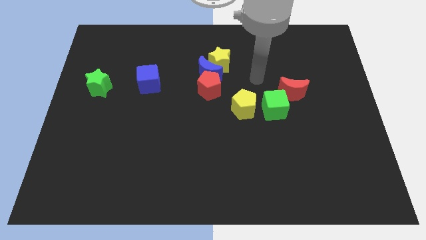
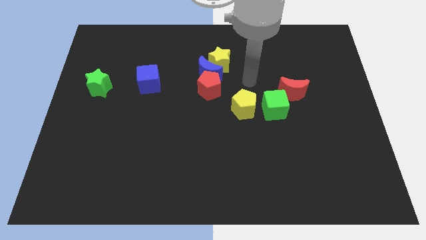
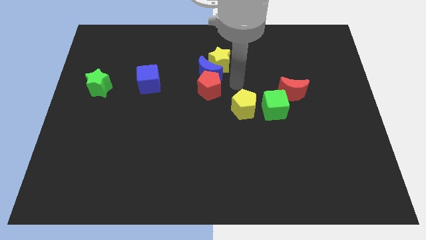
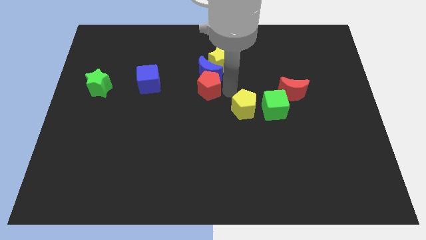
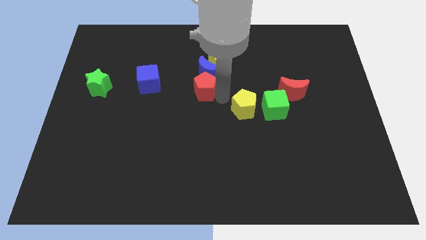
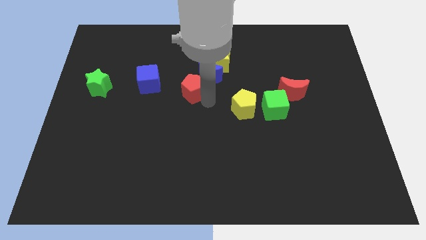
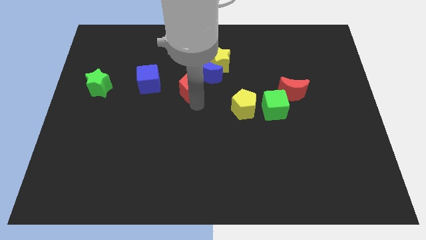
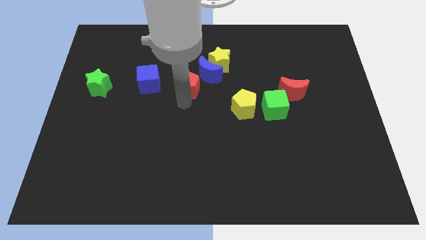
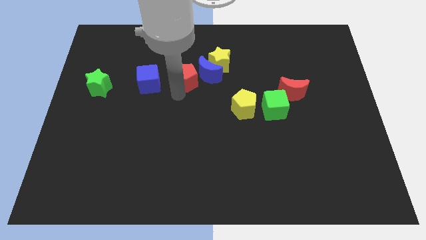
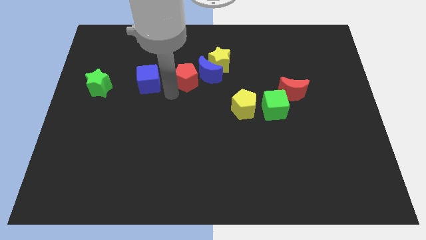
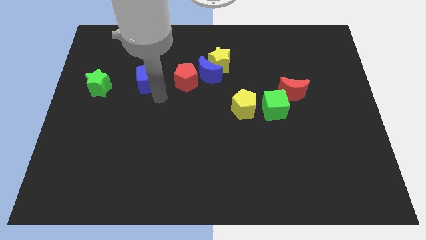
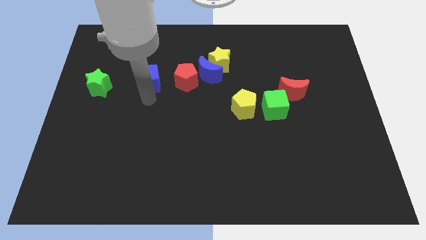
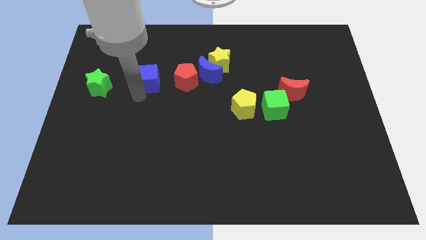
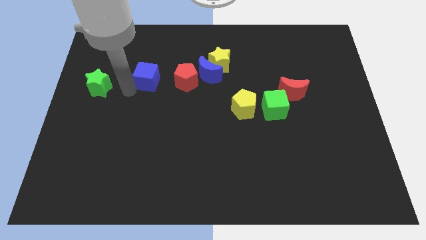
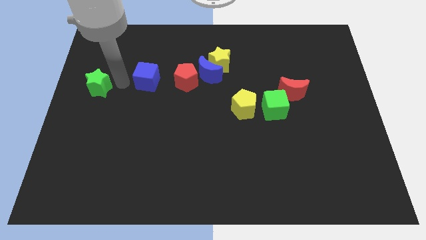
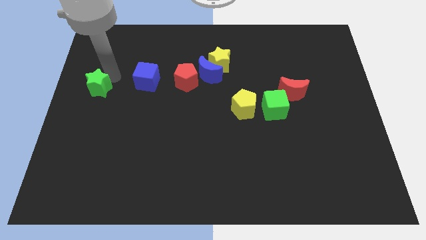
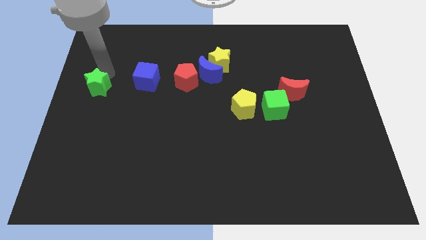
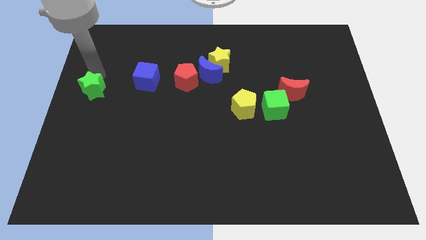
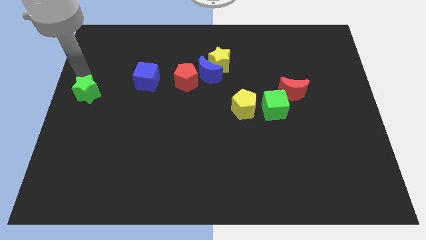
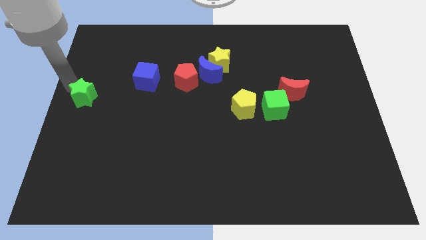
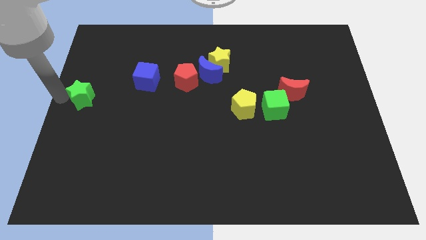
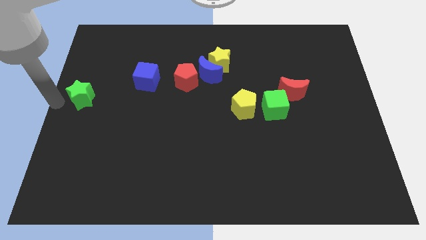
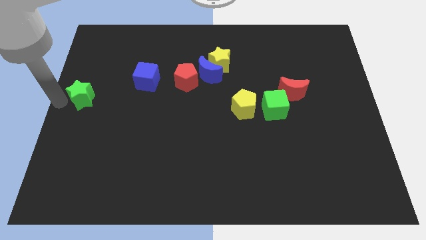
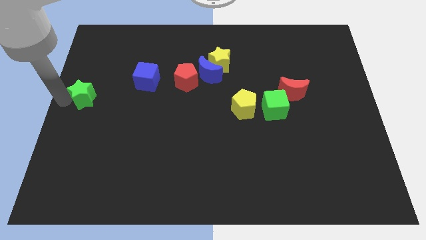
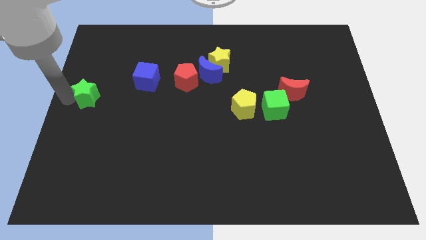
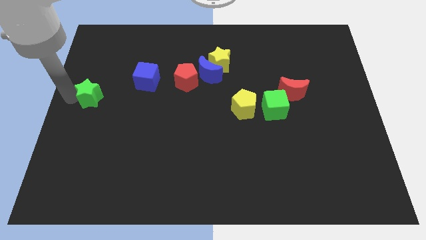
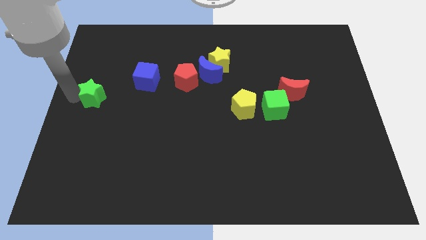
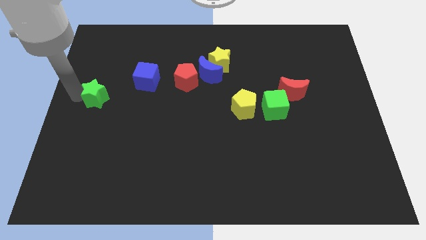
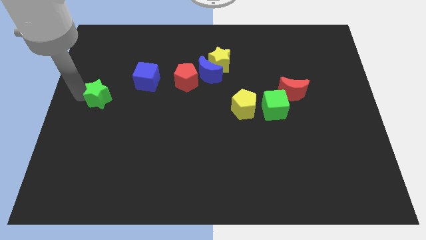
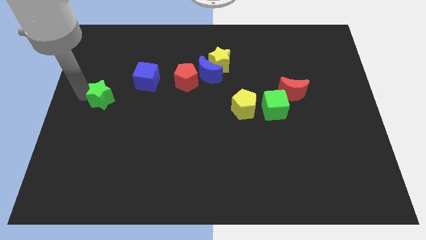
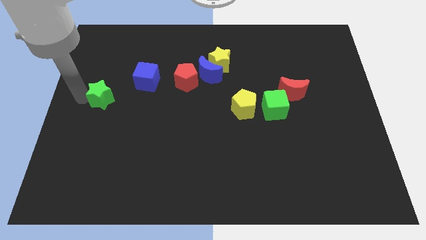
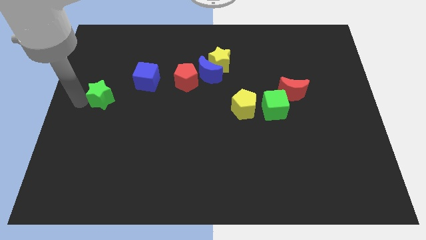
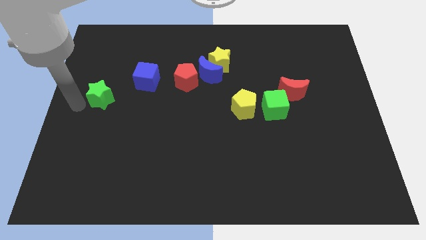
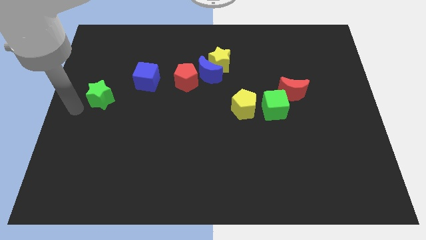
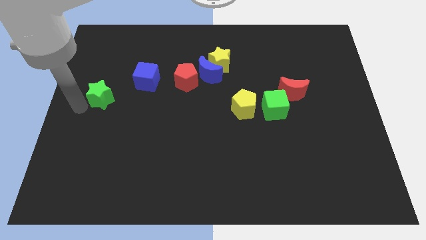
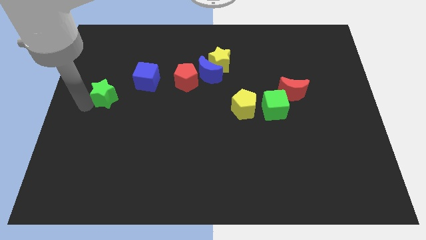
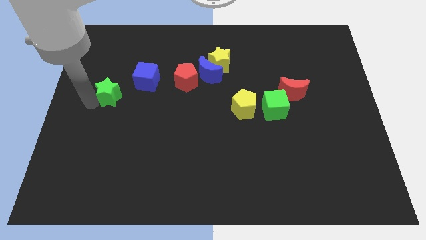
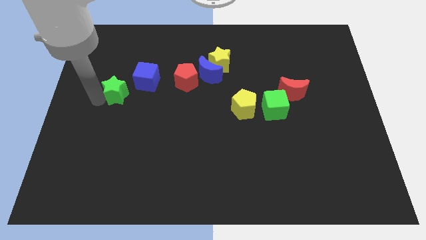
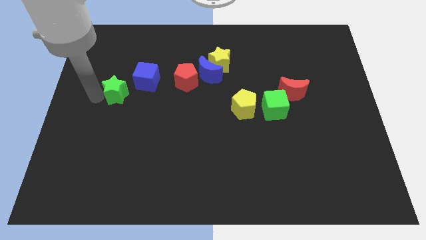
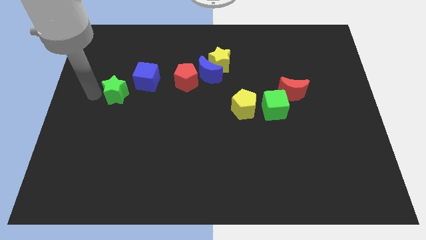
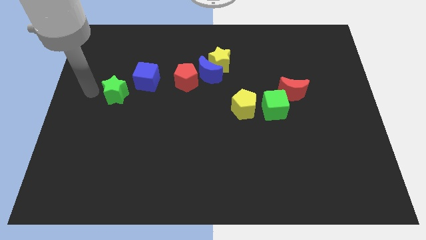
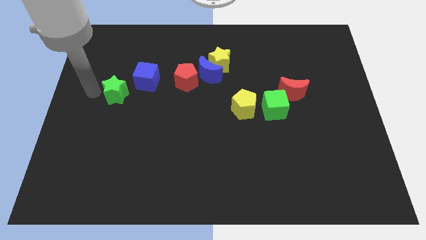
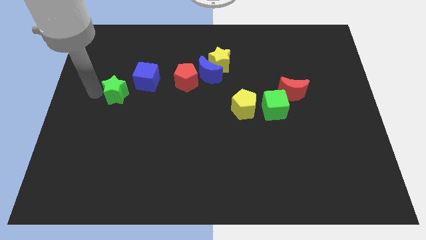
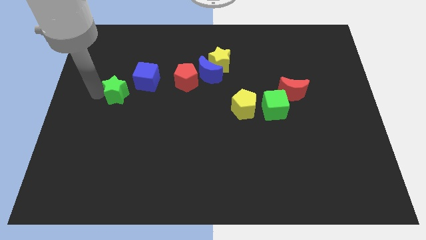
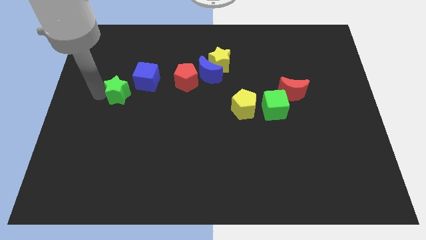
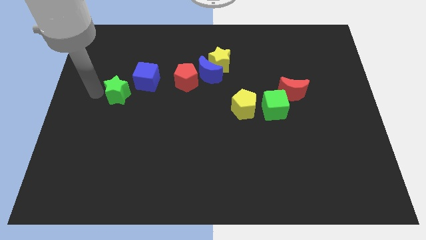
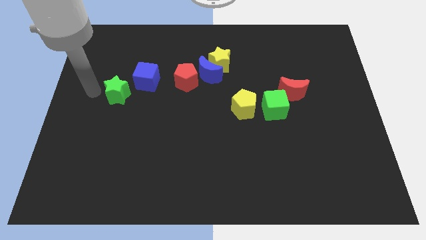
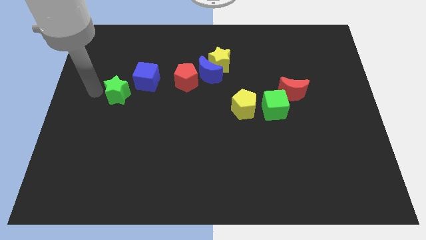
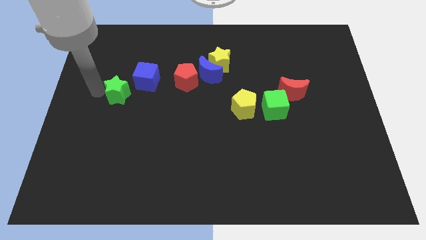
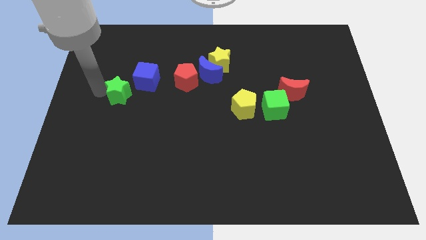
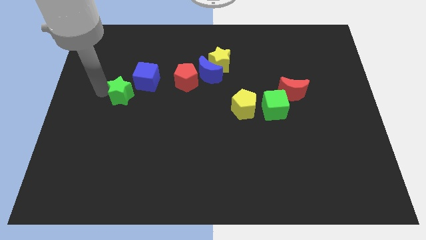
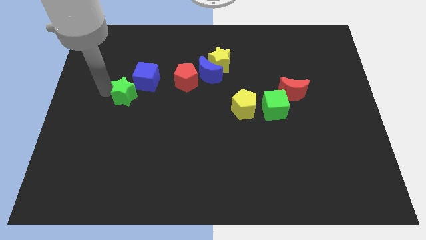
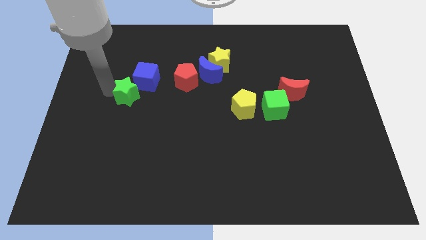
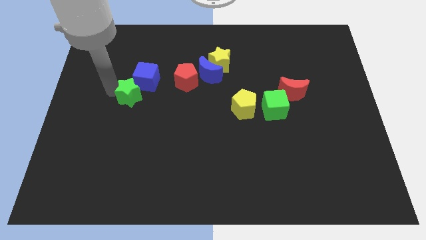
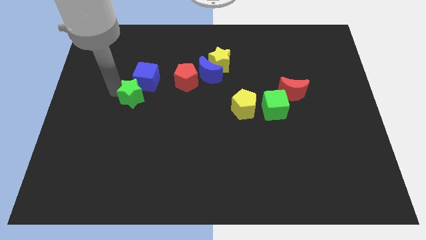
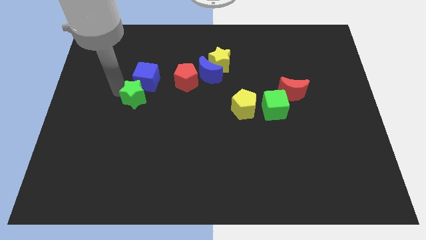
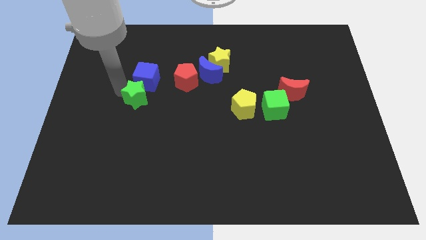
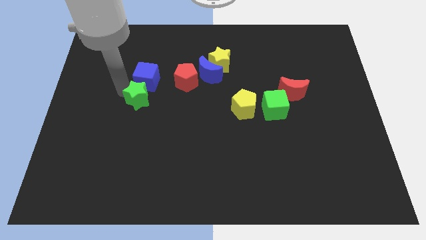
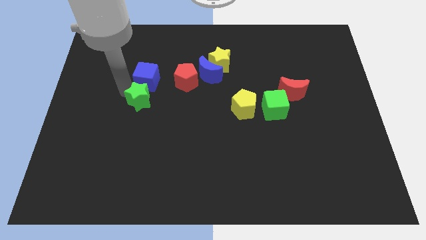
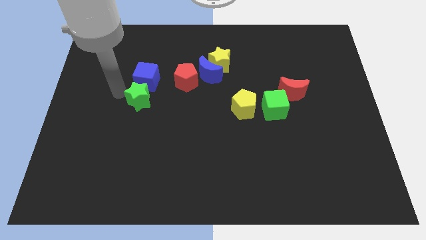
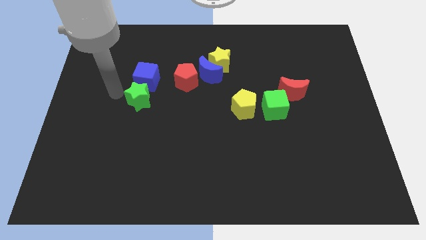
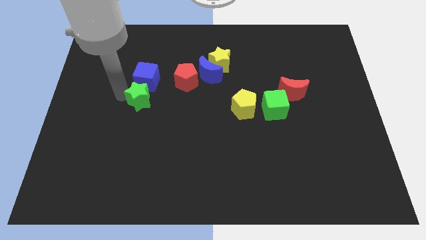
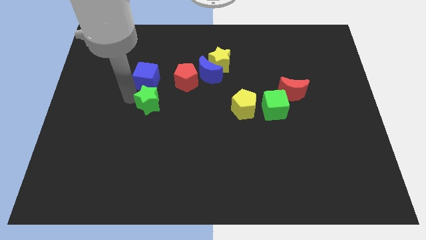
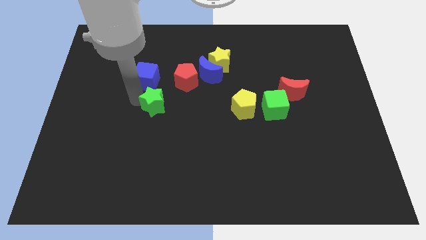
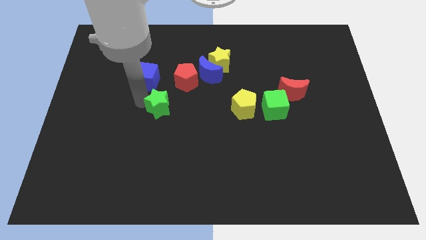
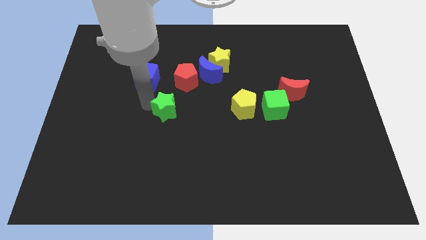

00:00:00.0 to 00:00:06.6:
move the green star below the red pentagon
